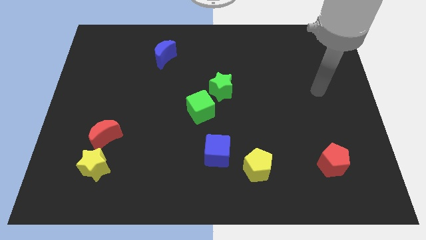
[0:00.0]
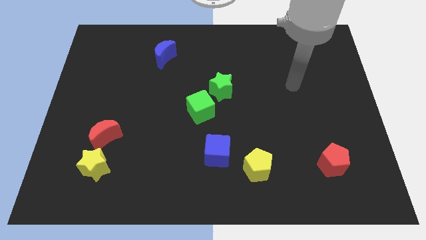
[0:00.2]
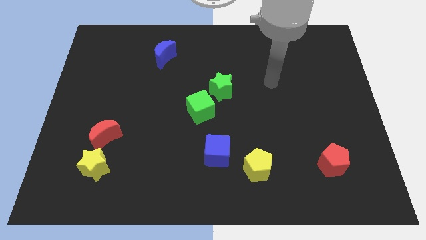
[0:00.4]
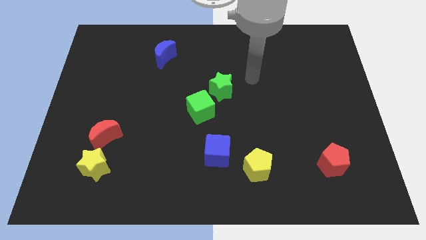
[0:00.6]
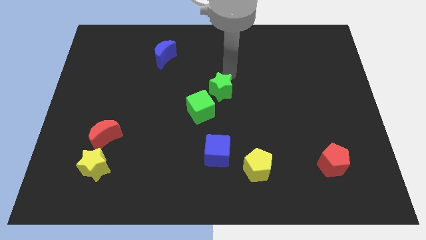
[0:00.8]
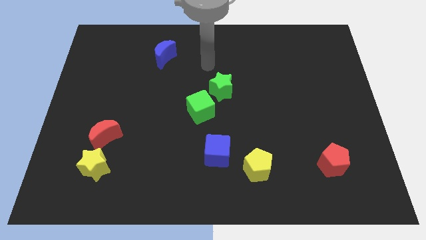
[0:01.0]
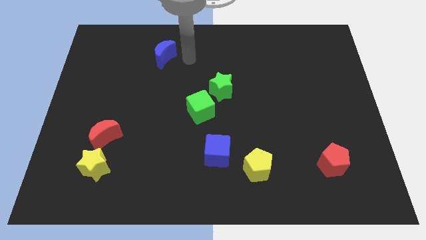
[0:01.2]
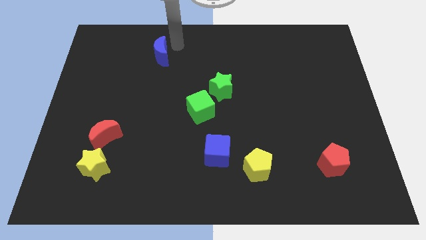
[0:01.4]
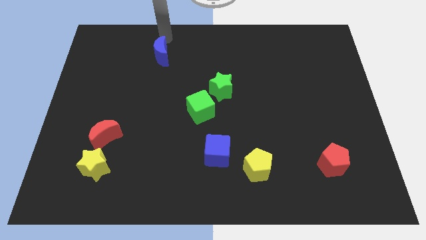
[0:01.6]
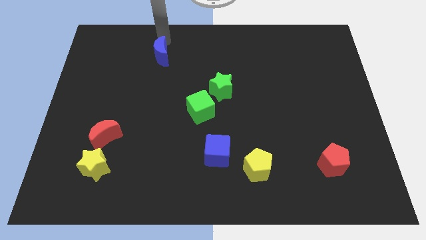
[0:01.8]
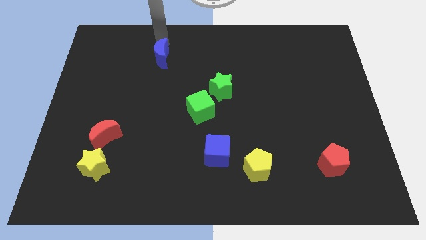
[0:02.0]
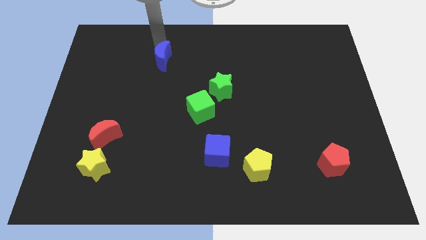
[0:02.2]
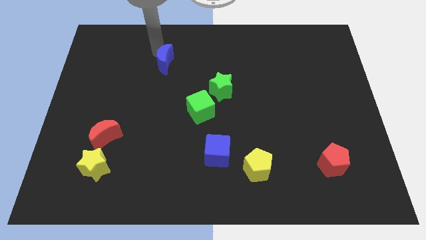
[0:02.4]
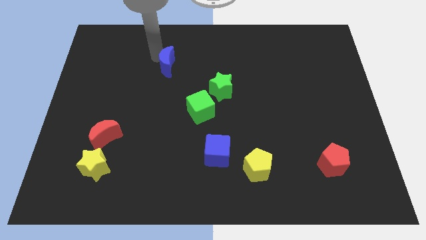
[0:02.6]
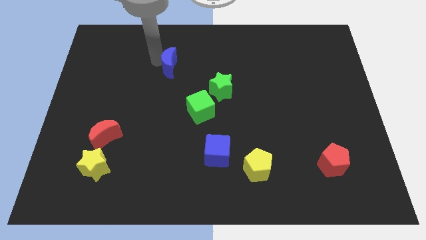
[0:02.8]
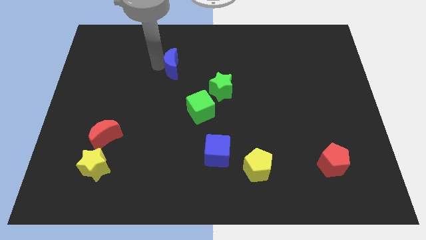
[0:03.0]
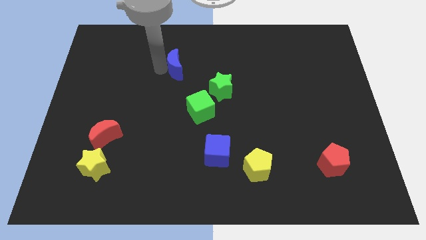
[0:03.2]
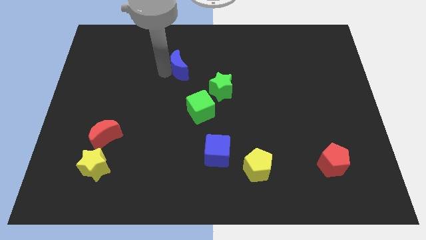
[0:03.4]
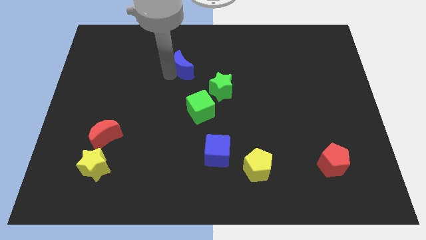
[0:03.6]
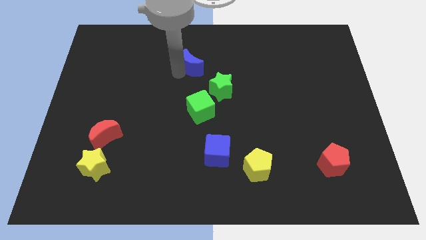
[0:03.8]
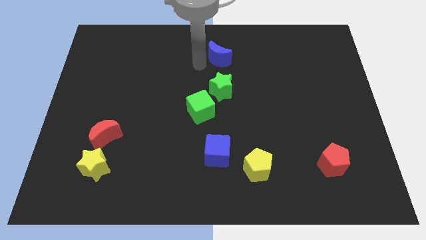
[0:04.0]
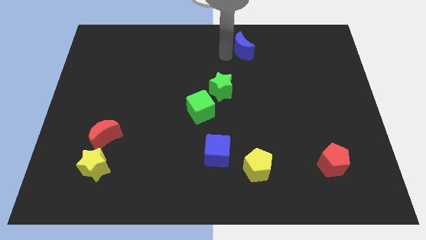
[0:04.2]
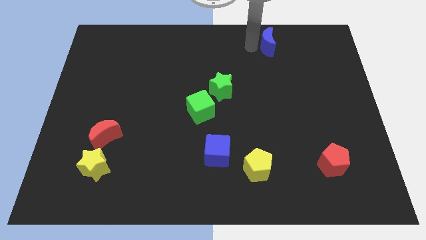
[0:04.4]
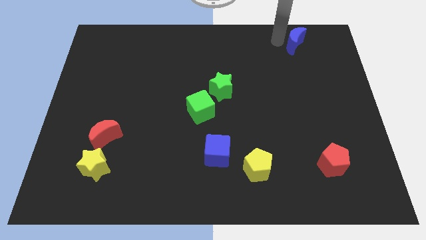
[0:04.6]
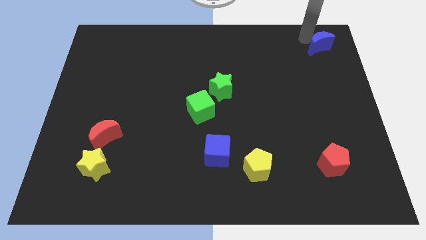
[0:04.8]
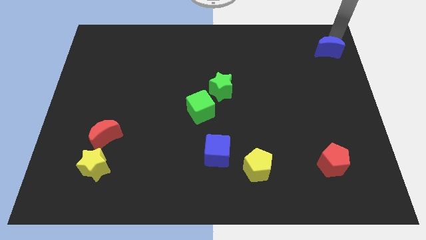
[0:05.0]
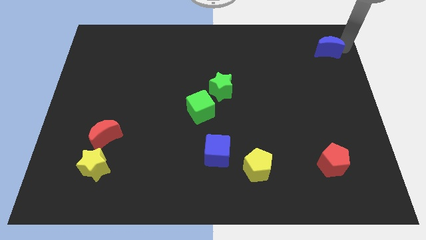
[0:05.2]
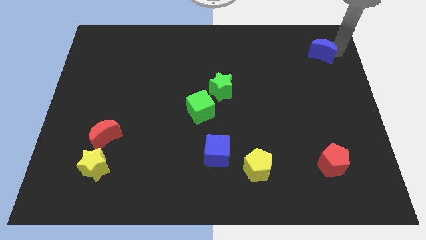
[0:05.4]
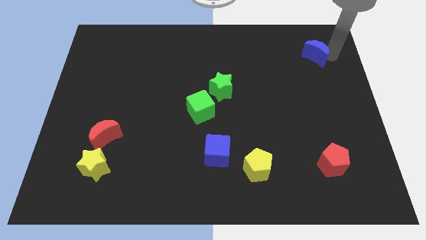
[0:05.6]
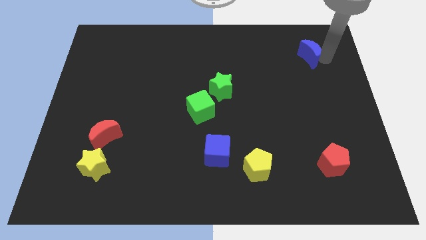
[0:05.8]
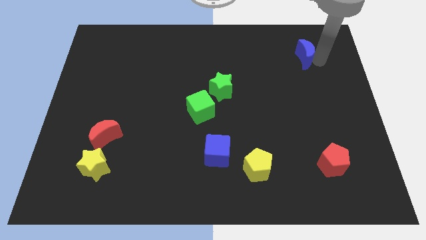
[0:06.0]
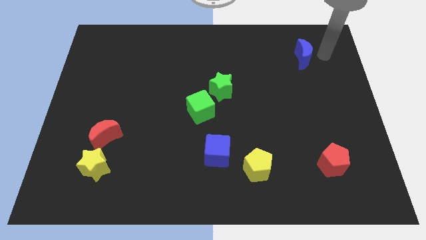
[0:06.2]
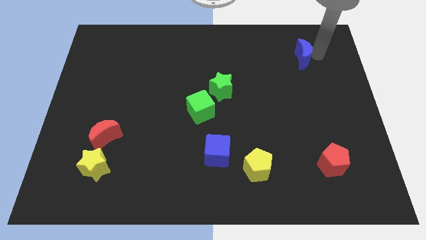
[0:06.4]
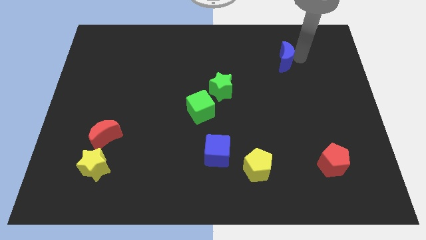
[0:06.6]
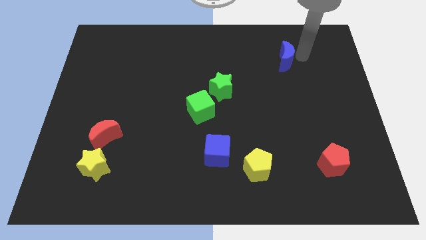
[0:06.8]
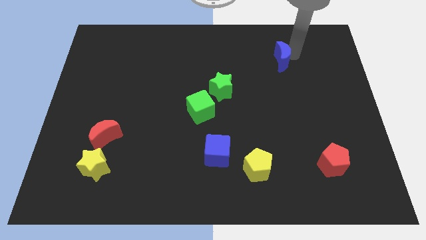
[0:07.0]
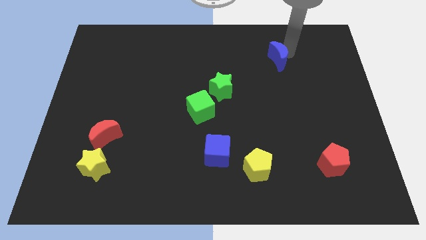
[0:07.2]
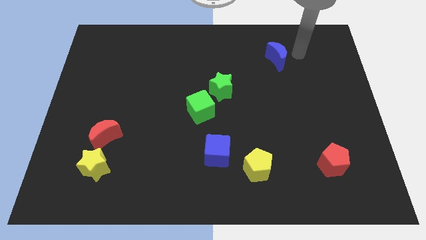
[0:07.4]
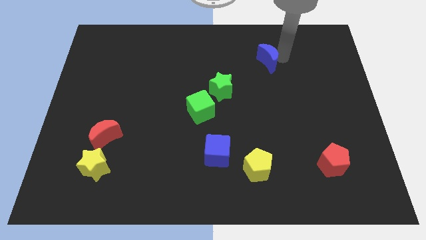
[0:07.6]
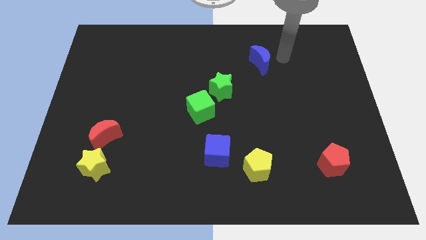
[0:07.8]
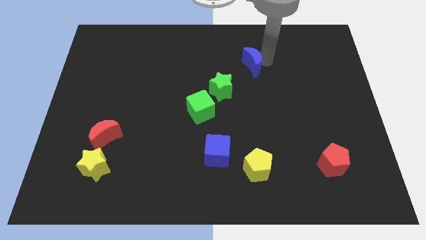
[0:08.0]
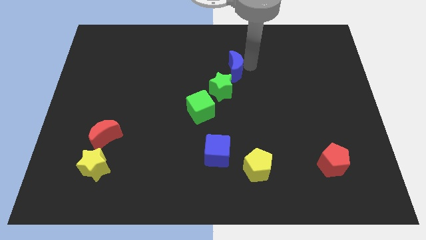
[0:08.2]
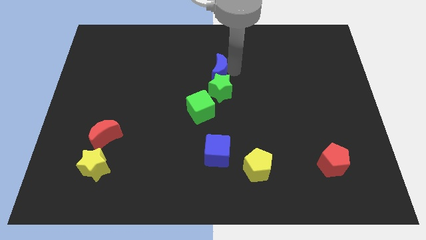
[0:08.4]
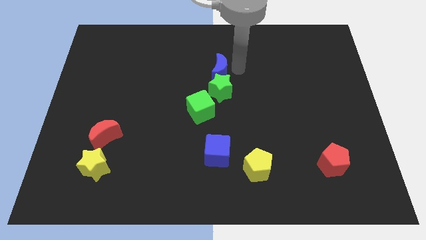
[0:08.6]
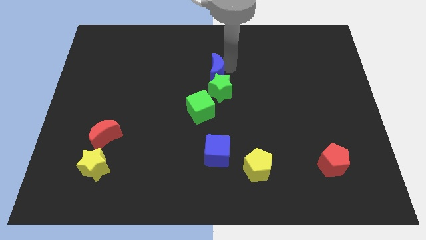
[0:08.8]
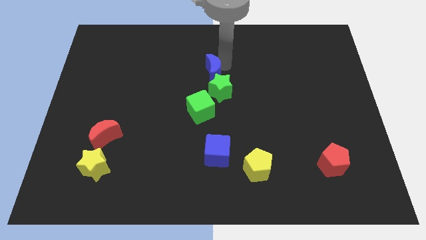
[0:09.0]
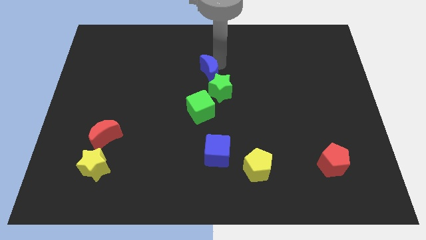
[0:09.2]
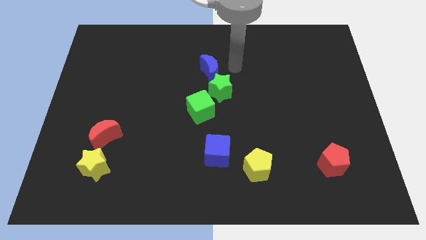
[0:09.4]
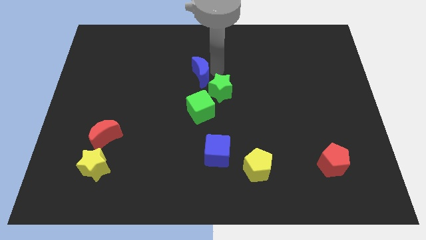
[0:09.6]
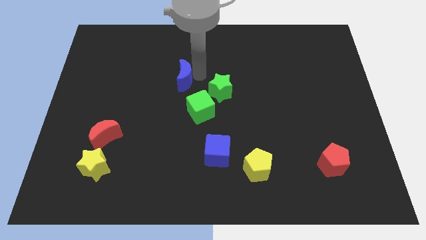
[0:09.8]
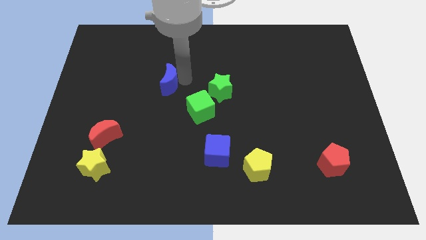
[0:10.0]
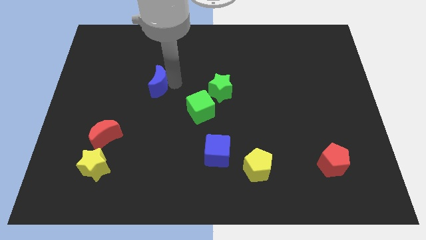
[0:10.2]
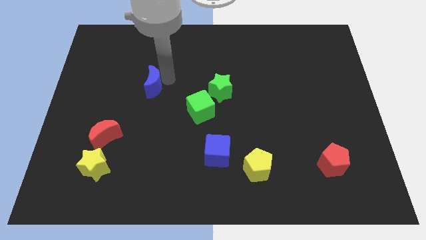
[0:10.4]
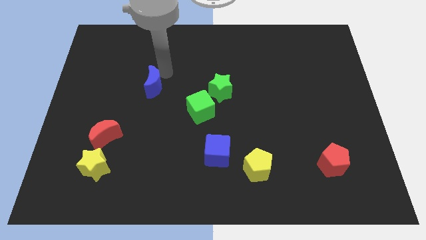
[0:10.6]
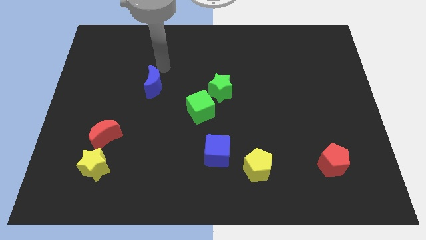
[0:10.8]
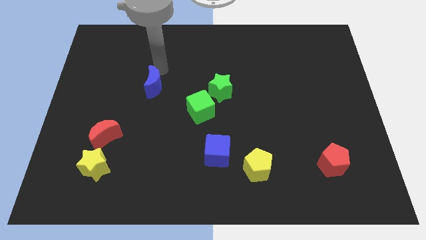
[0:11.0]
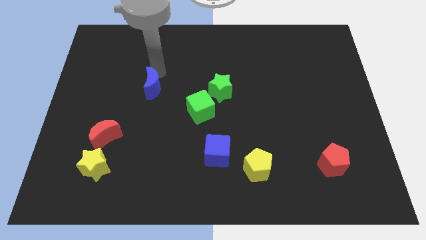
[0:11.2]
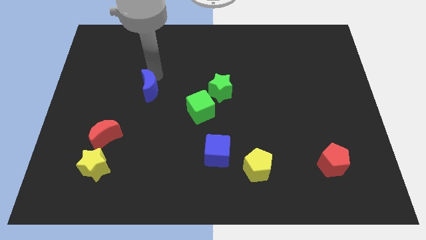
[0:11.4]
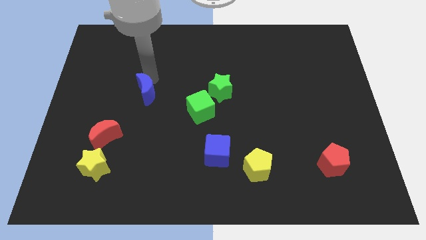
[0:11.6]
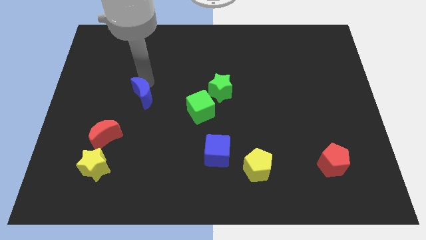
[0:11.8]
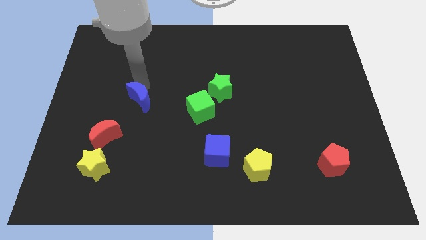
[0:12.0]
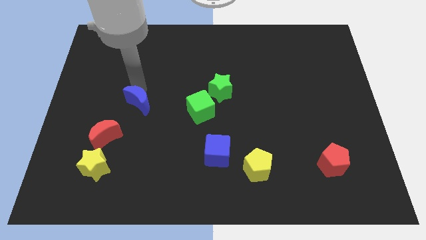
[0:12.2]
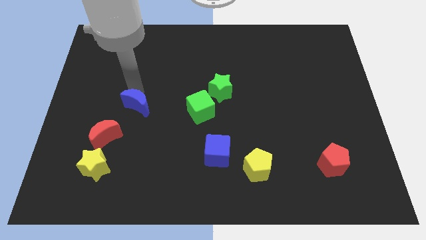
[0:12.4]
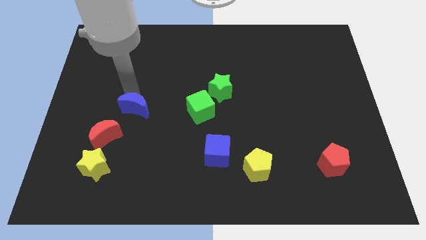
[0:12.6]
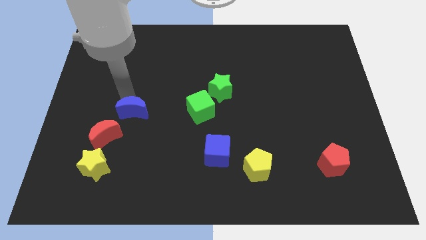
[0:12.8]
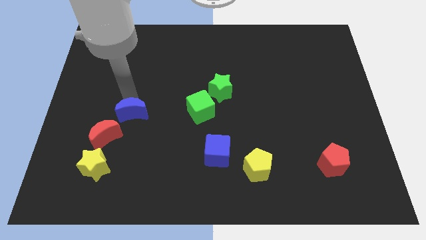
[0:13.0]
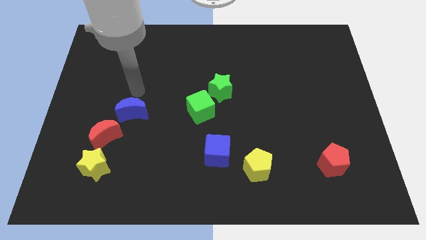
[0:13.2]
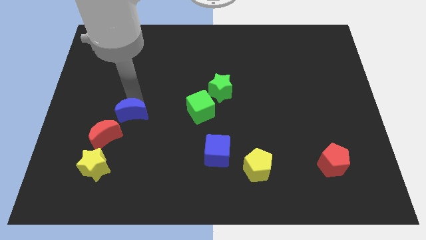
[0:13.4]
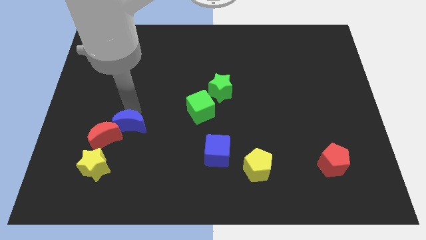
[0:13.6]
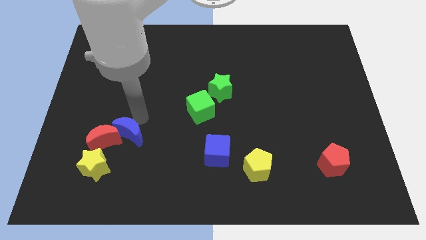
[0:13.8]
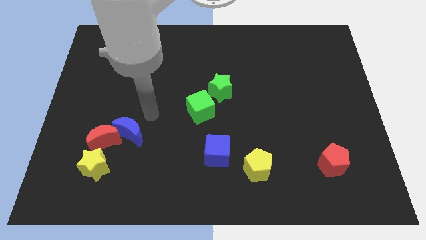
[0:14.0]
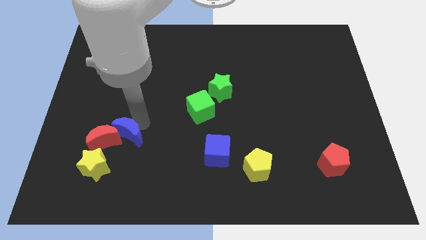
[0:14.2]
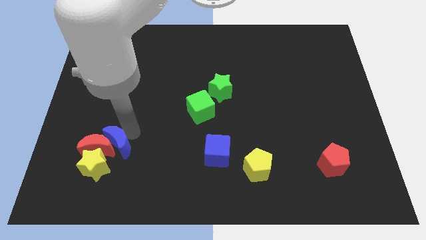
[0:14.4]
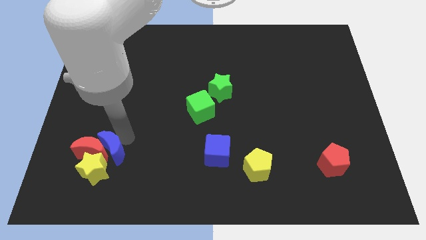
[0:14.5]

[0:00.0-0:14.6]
push the blue moon towards the yellow star

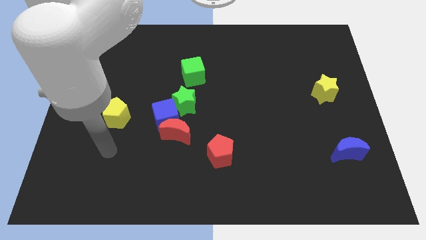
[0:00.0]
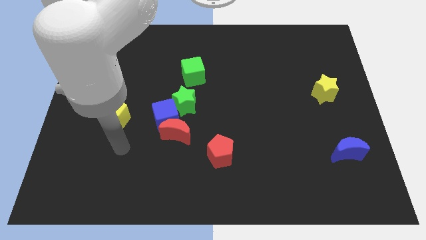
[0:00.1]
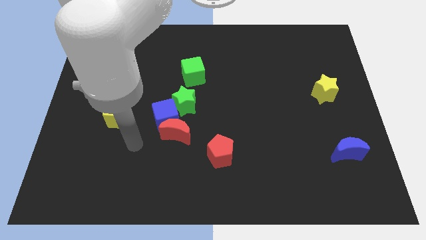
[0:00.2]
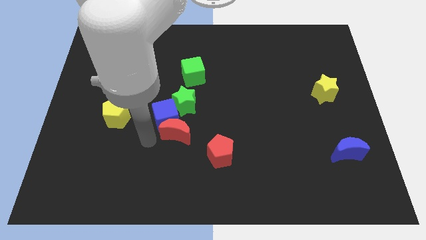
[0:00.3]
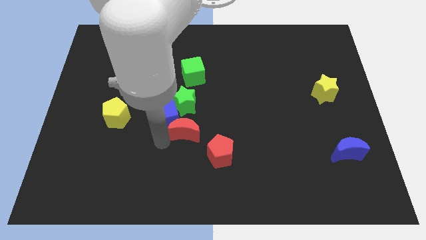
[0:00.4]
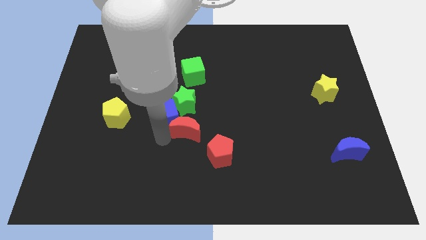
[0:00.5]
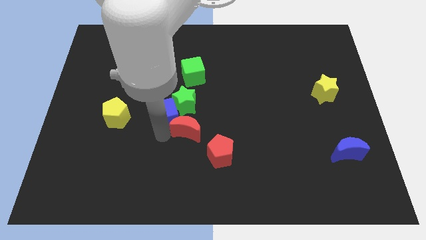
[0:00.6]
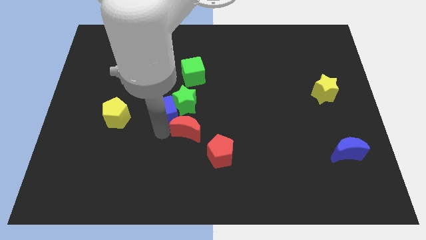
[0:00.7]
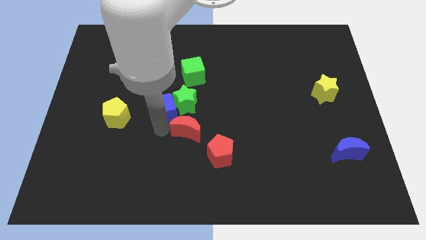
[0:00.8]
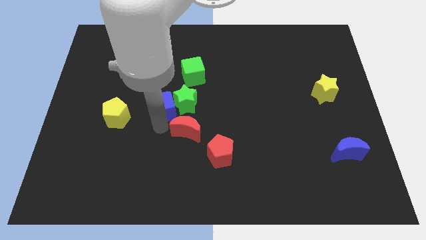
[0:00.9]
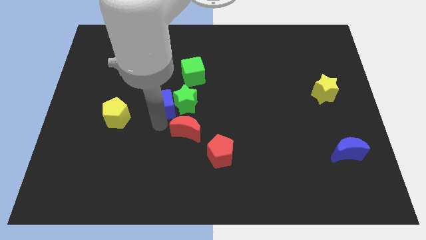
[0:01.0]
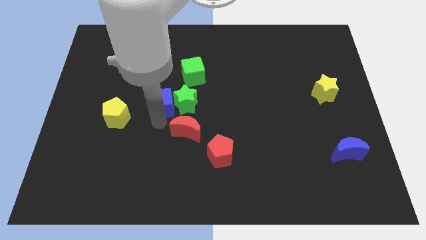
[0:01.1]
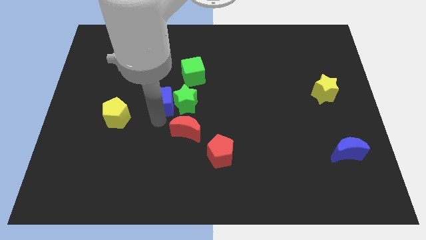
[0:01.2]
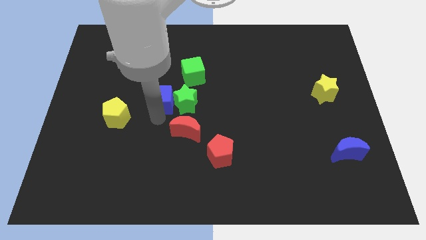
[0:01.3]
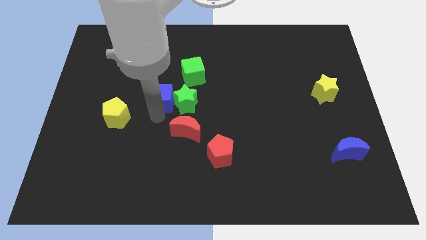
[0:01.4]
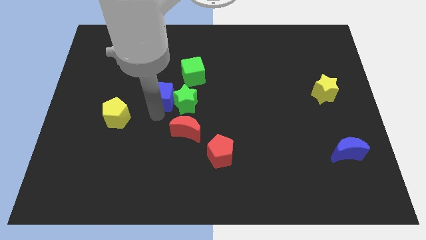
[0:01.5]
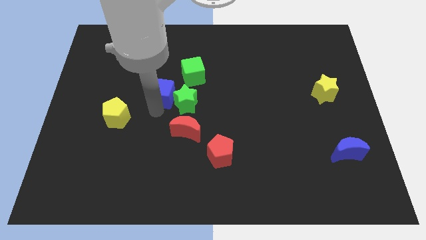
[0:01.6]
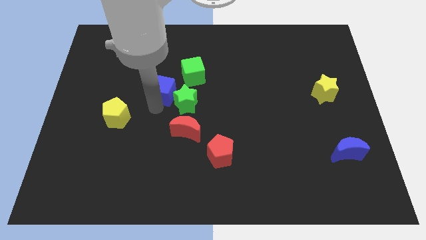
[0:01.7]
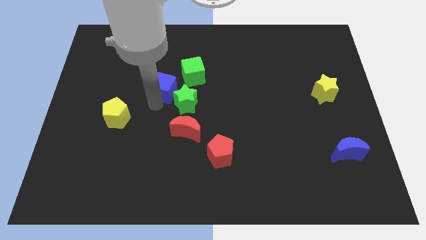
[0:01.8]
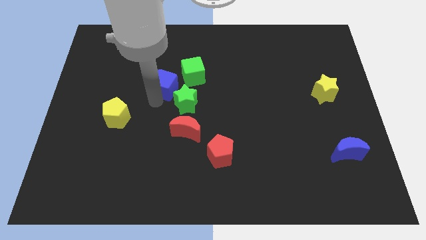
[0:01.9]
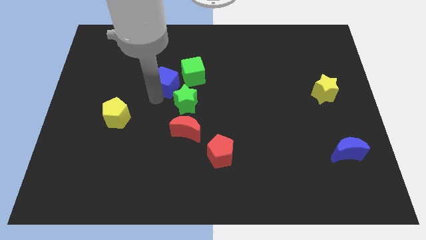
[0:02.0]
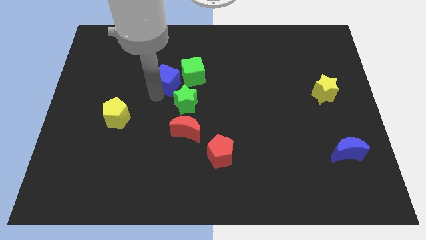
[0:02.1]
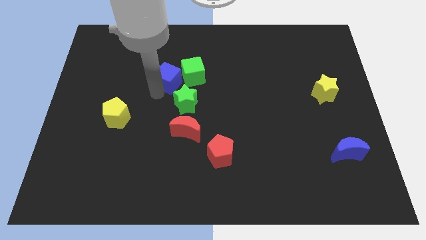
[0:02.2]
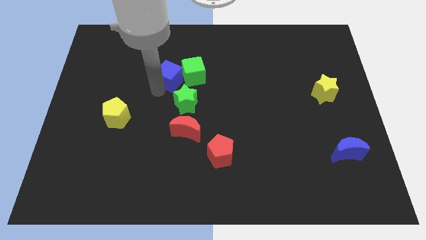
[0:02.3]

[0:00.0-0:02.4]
push the blue cube next to the green cube
